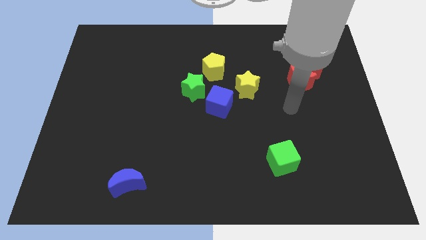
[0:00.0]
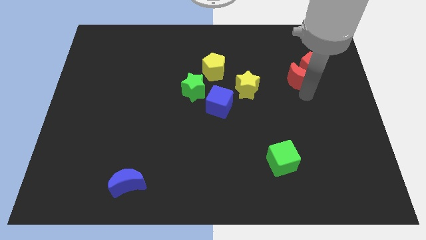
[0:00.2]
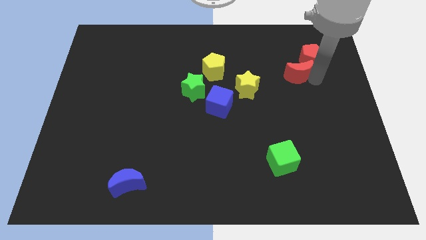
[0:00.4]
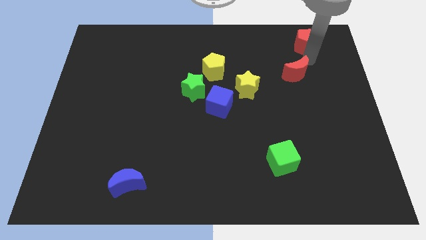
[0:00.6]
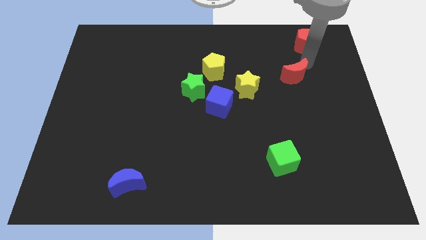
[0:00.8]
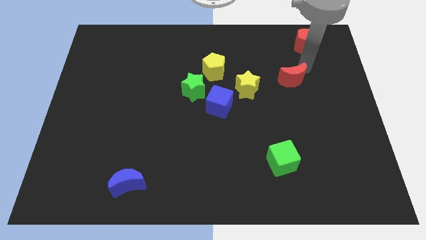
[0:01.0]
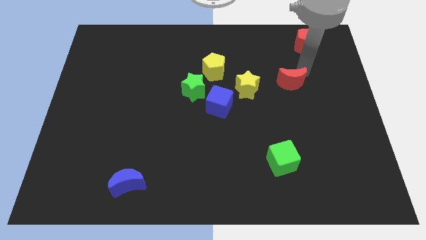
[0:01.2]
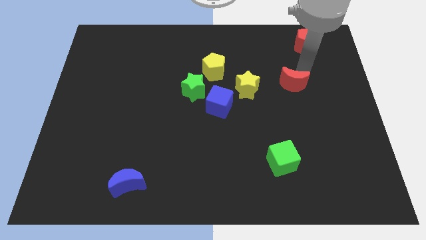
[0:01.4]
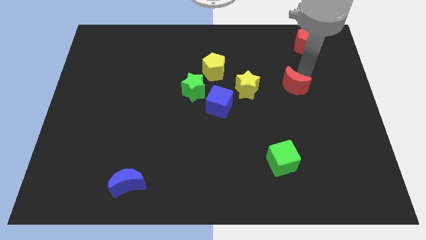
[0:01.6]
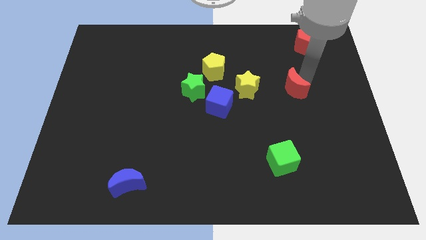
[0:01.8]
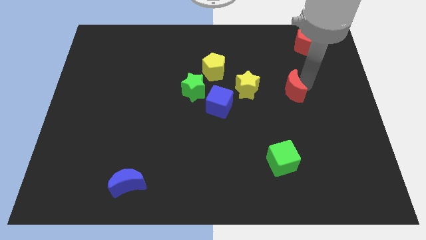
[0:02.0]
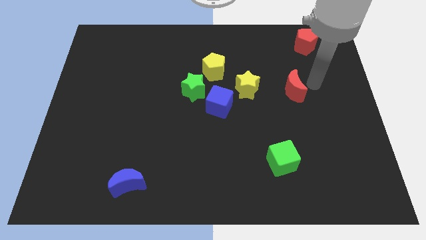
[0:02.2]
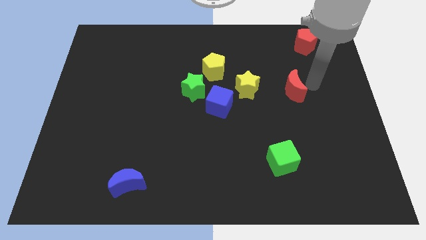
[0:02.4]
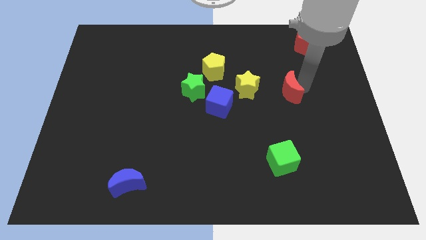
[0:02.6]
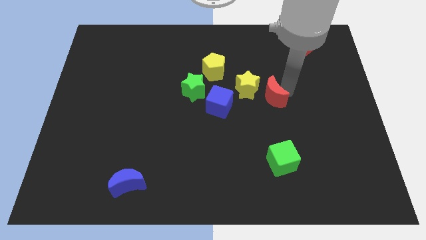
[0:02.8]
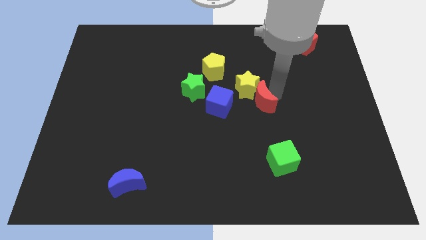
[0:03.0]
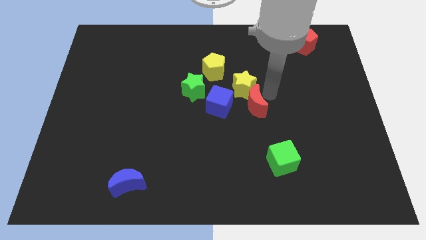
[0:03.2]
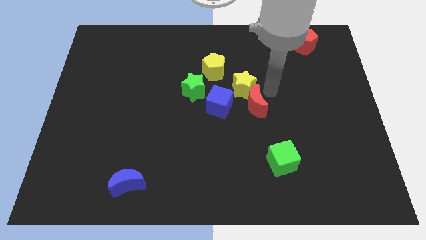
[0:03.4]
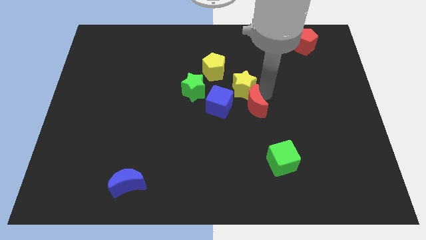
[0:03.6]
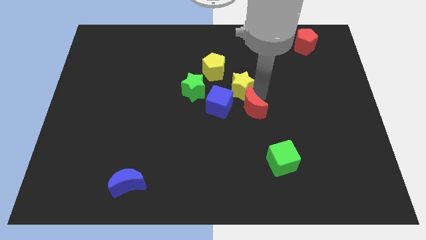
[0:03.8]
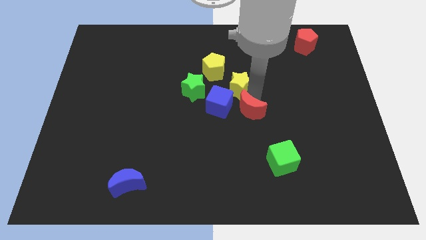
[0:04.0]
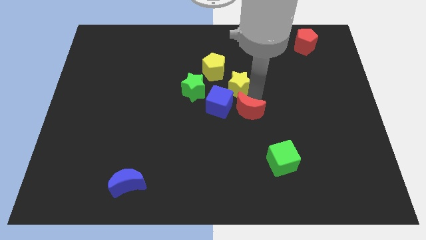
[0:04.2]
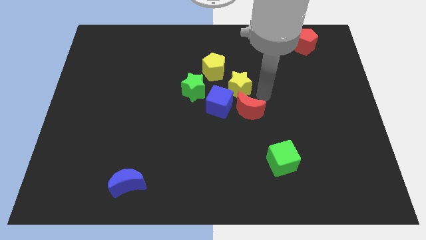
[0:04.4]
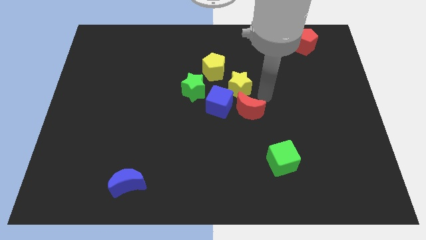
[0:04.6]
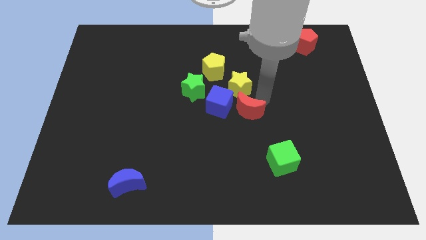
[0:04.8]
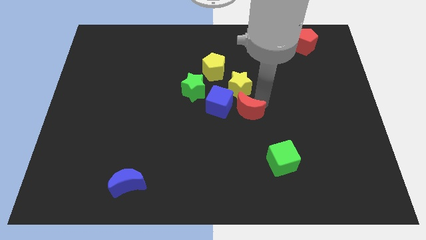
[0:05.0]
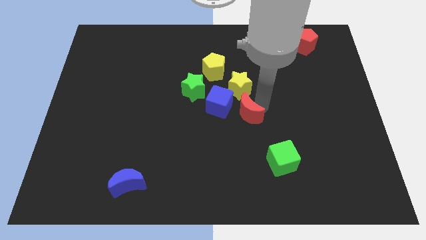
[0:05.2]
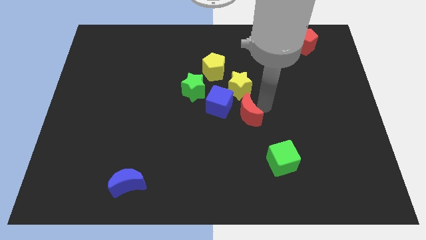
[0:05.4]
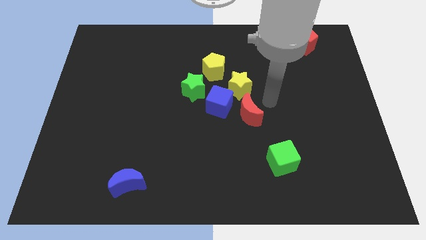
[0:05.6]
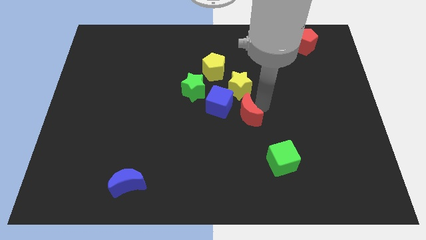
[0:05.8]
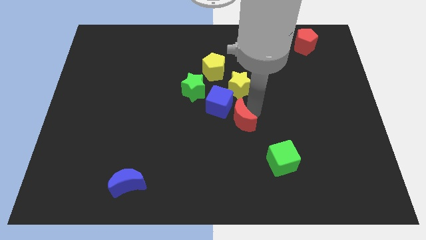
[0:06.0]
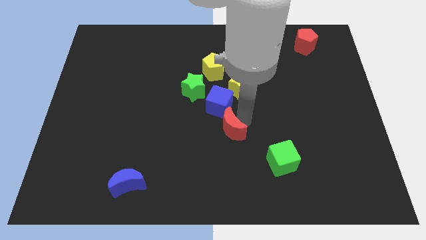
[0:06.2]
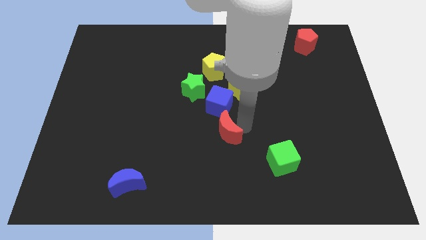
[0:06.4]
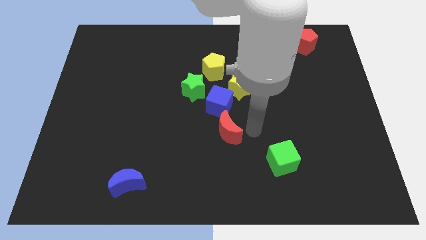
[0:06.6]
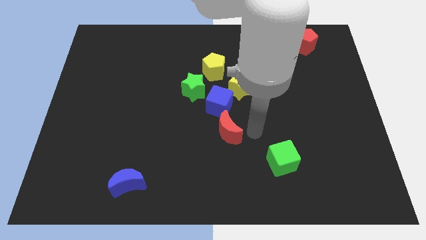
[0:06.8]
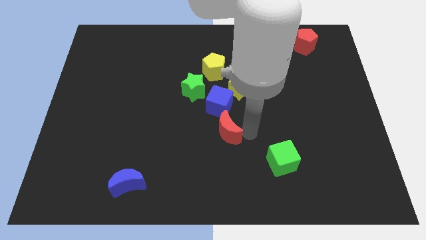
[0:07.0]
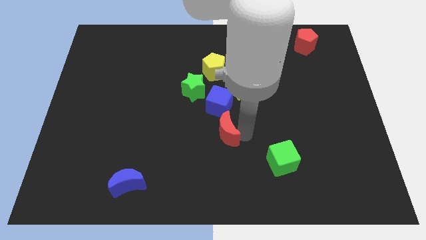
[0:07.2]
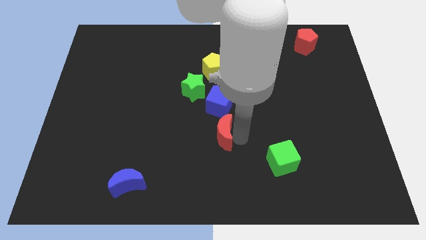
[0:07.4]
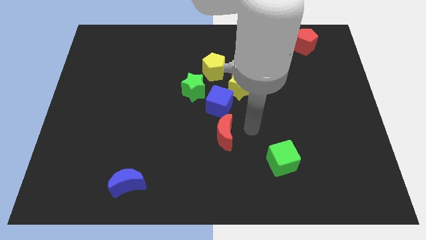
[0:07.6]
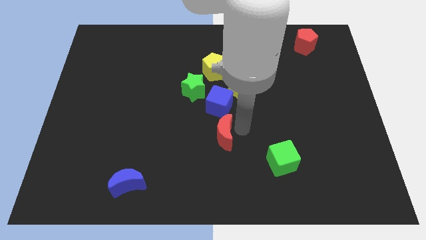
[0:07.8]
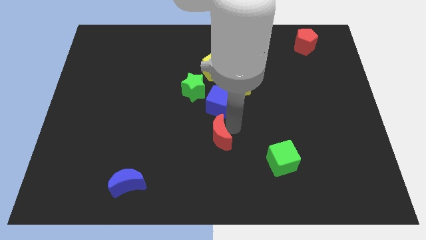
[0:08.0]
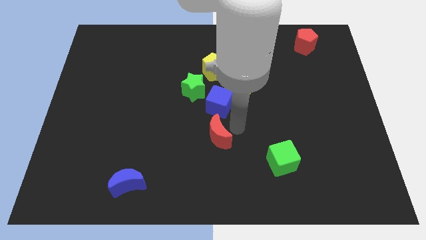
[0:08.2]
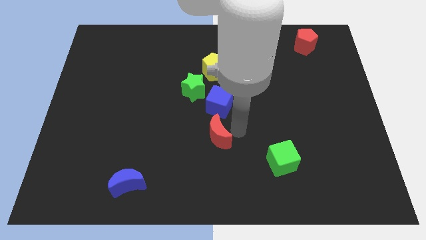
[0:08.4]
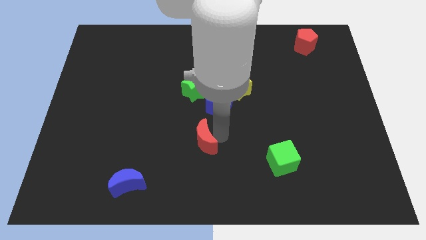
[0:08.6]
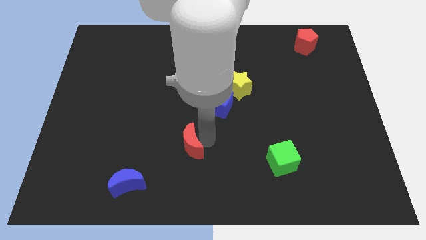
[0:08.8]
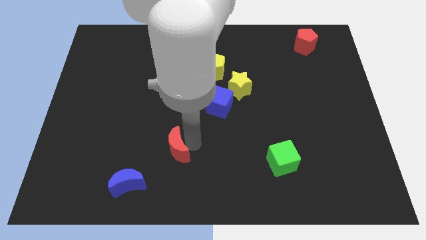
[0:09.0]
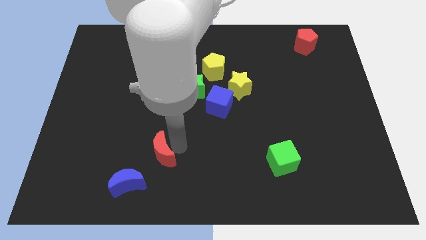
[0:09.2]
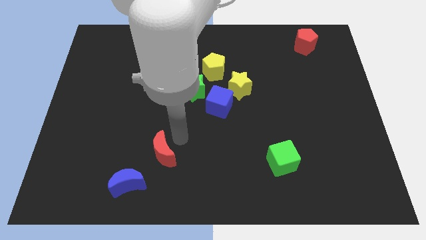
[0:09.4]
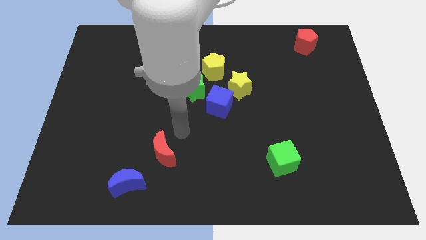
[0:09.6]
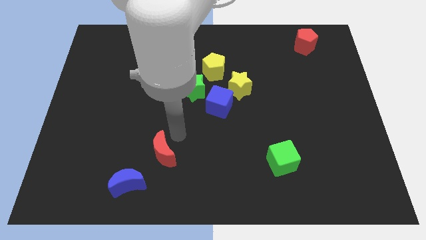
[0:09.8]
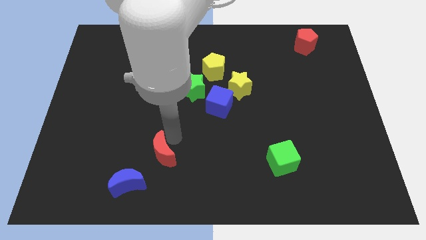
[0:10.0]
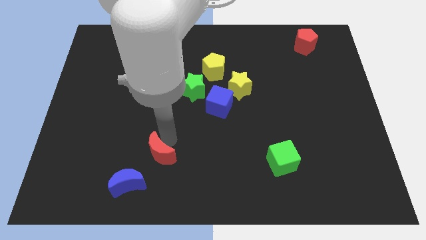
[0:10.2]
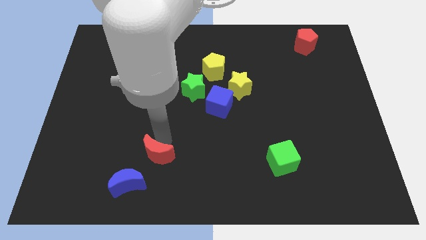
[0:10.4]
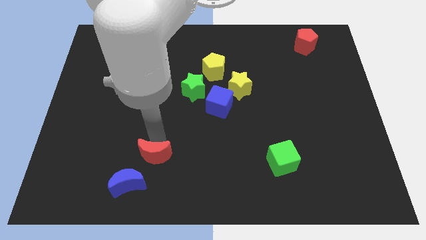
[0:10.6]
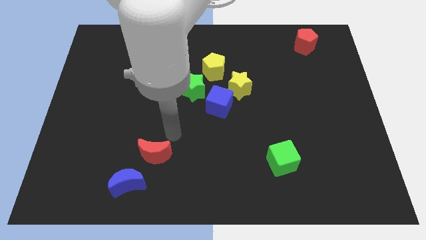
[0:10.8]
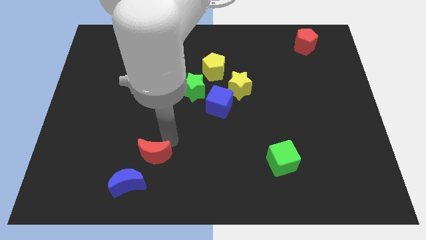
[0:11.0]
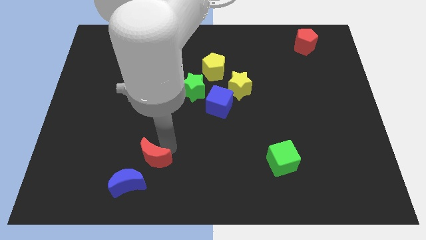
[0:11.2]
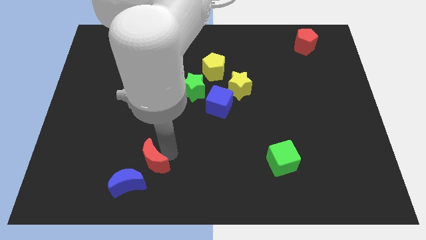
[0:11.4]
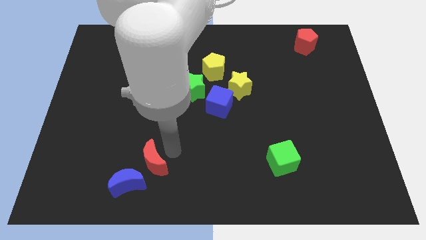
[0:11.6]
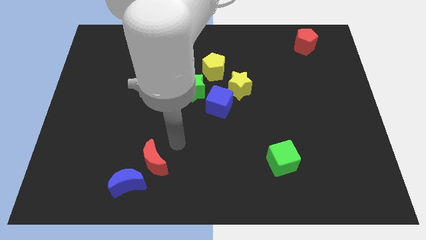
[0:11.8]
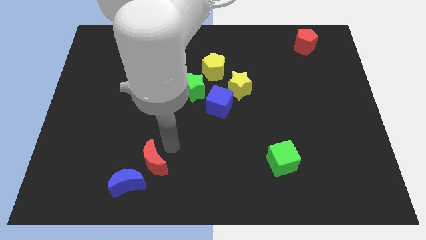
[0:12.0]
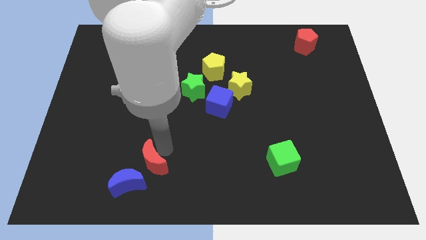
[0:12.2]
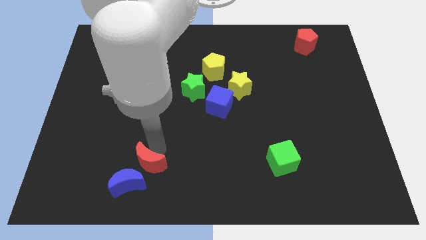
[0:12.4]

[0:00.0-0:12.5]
slide the red moon close to the blue moon
